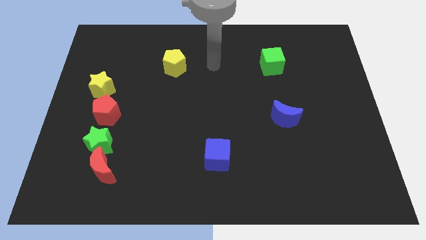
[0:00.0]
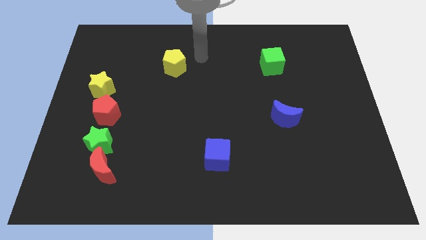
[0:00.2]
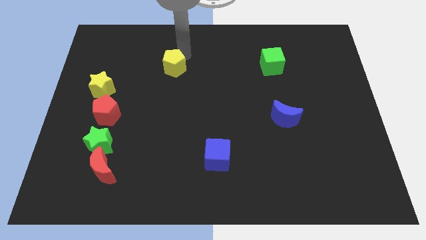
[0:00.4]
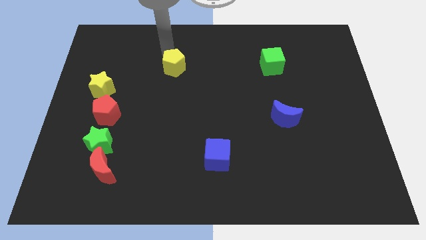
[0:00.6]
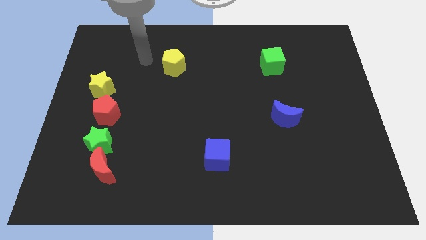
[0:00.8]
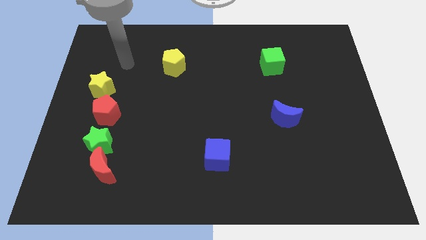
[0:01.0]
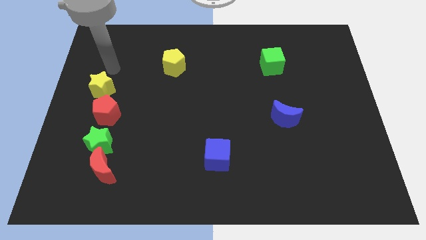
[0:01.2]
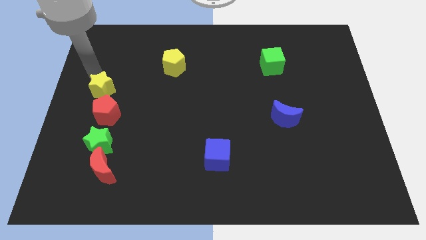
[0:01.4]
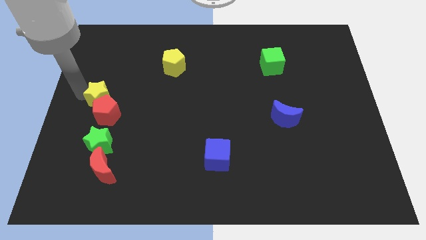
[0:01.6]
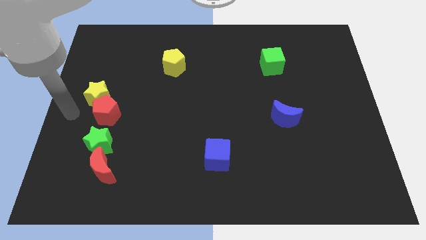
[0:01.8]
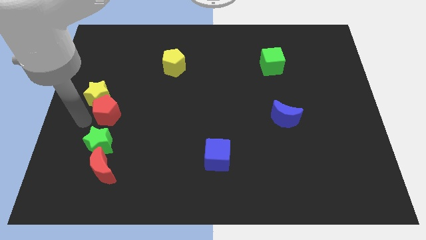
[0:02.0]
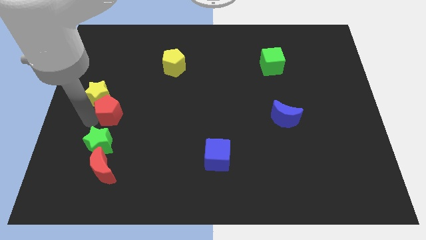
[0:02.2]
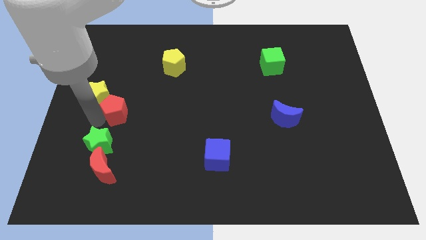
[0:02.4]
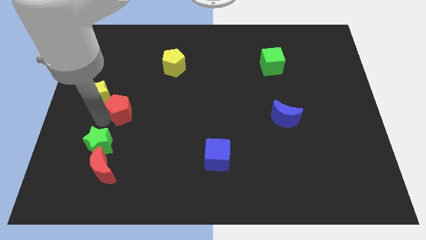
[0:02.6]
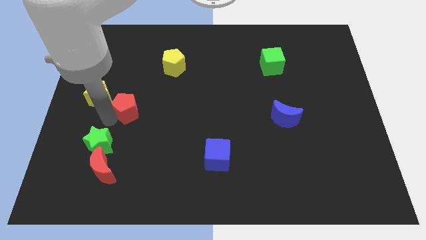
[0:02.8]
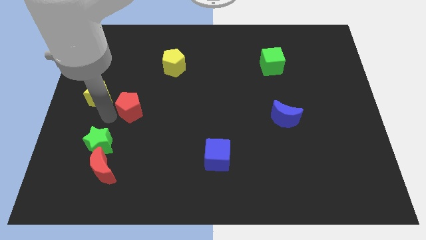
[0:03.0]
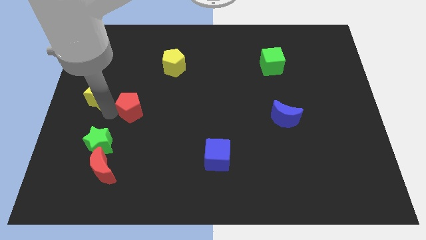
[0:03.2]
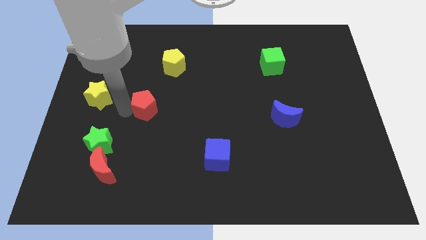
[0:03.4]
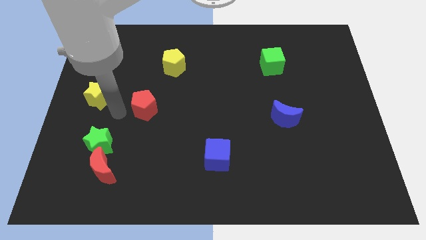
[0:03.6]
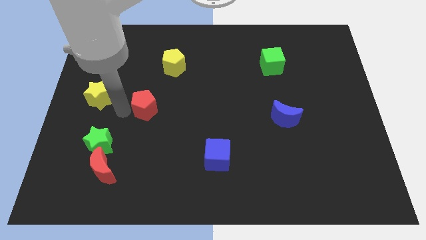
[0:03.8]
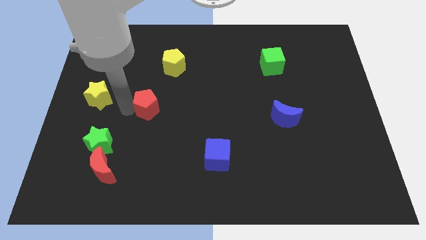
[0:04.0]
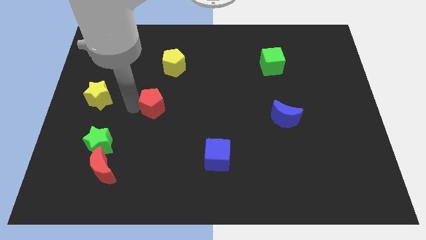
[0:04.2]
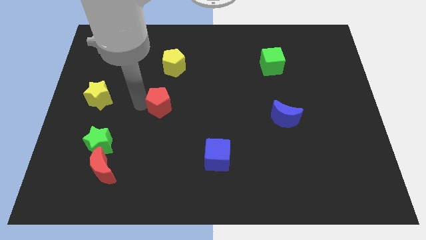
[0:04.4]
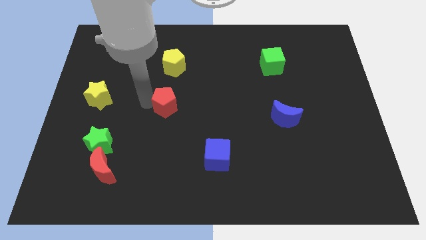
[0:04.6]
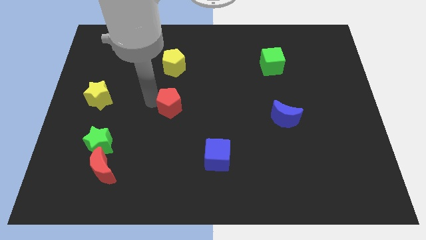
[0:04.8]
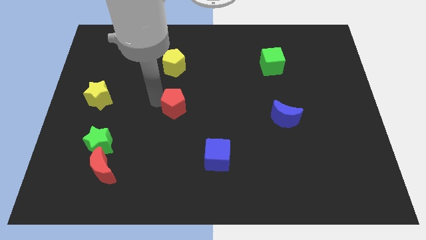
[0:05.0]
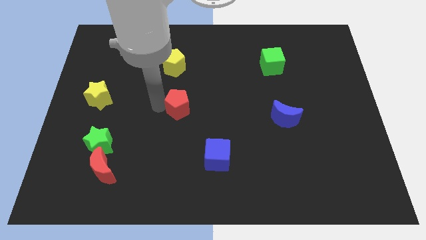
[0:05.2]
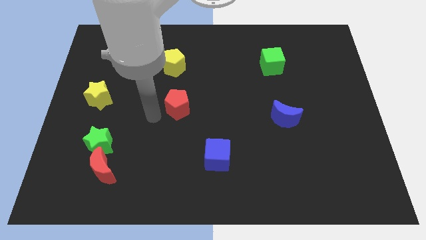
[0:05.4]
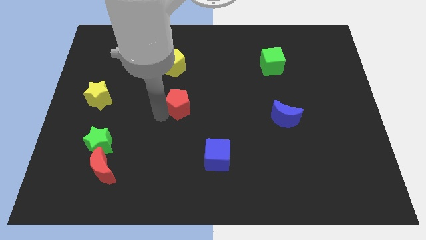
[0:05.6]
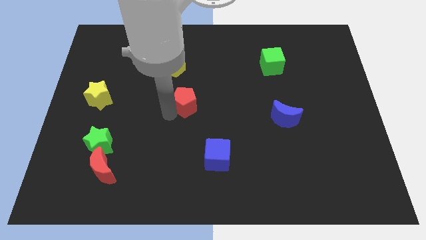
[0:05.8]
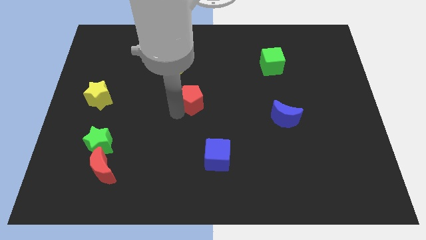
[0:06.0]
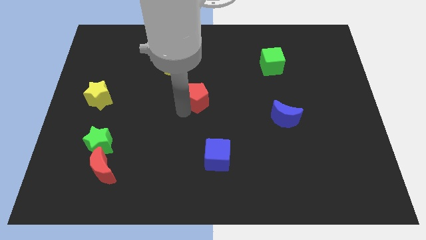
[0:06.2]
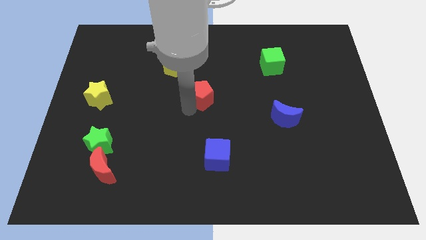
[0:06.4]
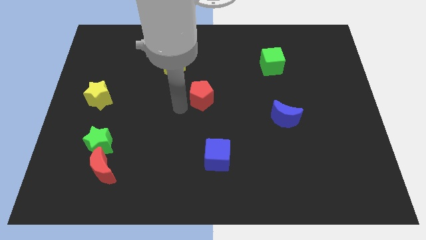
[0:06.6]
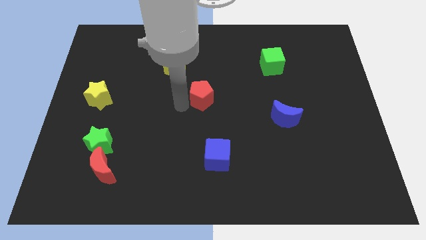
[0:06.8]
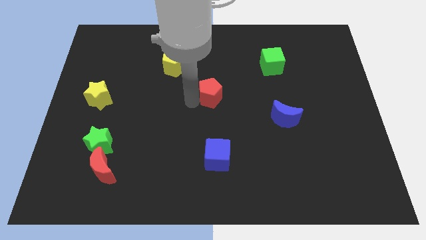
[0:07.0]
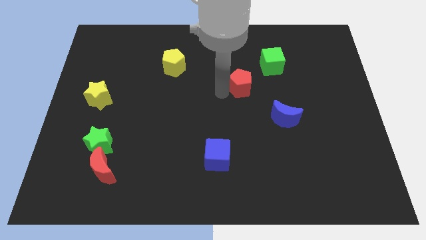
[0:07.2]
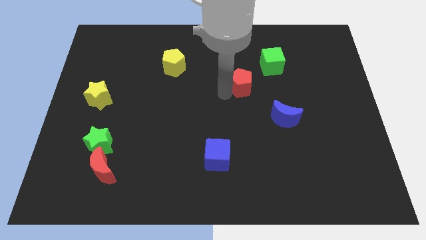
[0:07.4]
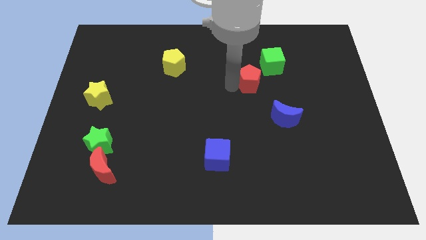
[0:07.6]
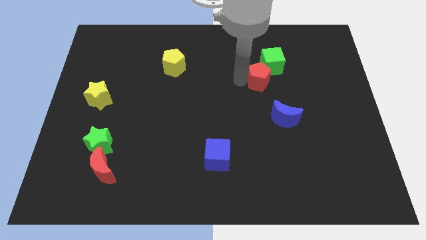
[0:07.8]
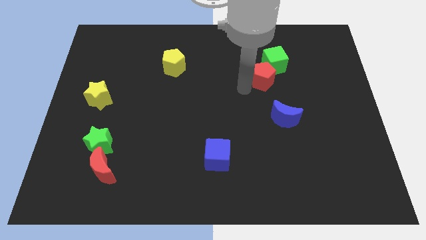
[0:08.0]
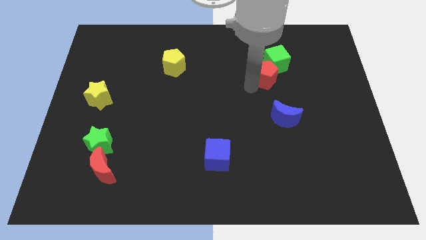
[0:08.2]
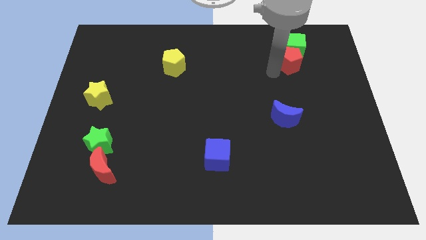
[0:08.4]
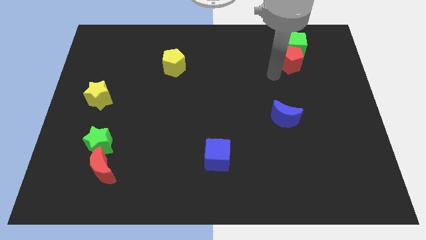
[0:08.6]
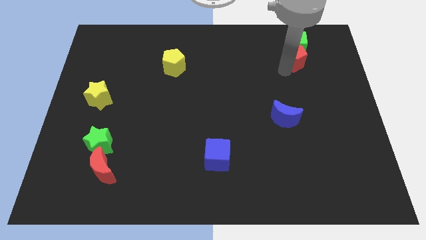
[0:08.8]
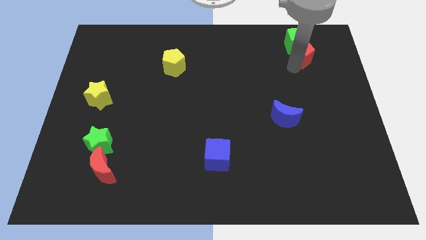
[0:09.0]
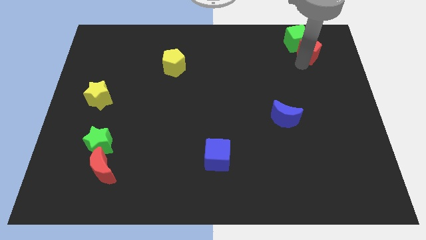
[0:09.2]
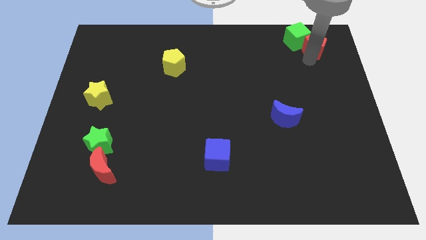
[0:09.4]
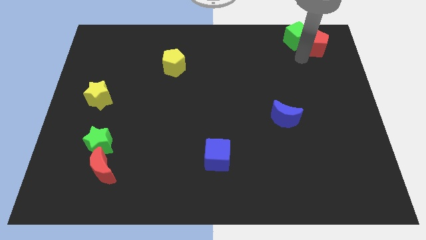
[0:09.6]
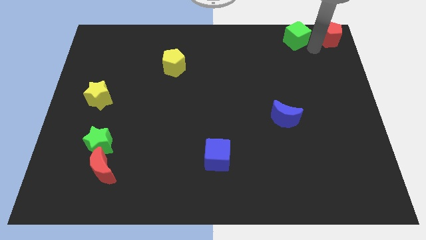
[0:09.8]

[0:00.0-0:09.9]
move the red pentagon to the top right of the board

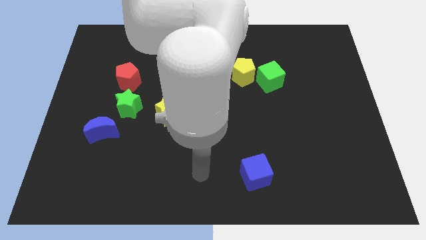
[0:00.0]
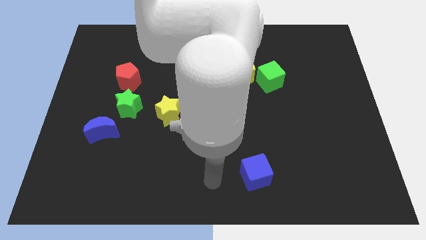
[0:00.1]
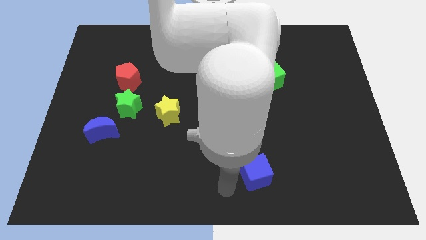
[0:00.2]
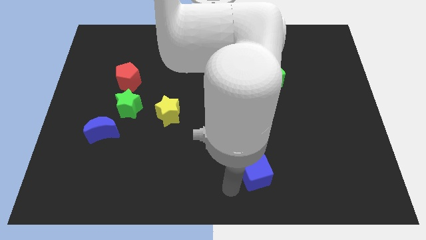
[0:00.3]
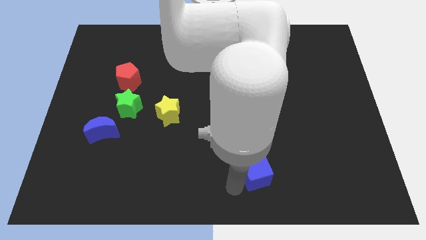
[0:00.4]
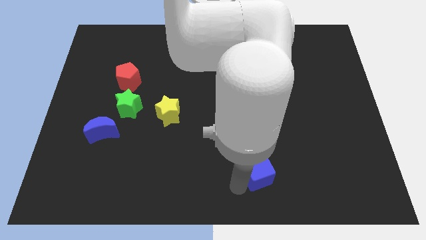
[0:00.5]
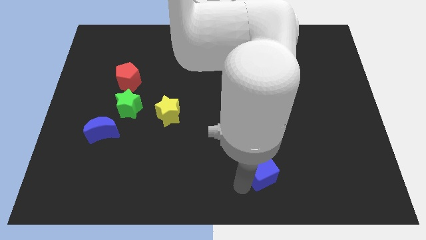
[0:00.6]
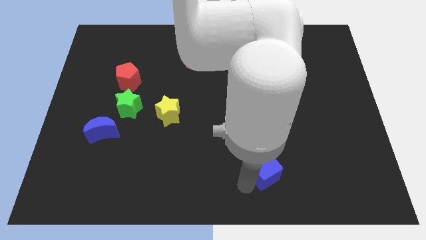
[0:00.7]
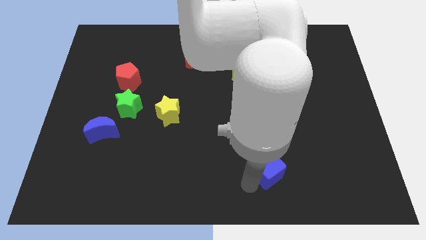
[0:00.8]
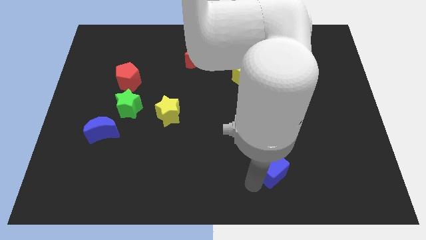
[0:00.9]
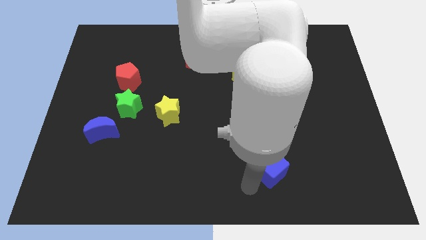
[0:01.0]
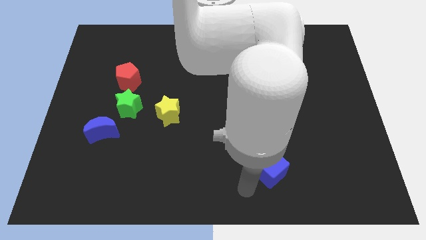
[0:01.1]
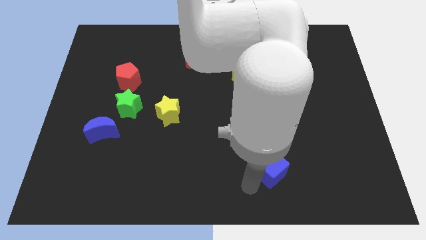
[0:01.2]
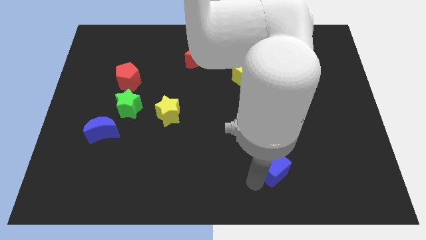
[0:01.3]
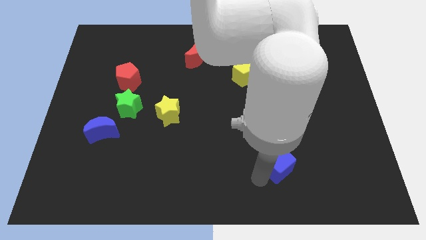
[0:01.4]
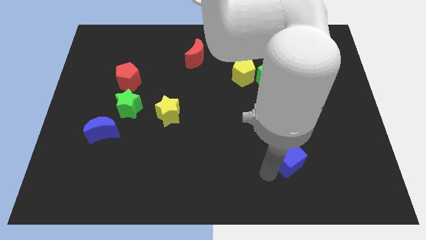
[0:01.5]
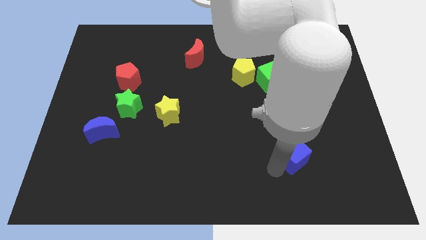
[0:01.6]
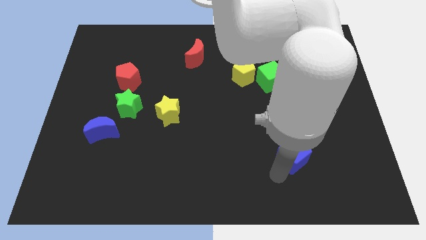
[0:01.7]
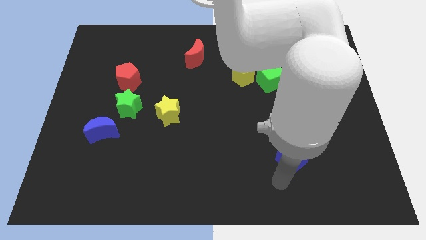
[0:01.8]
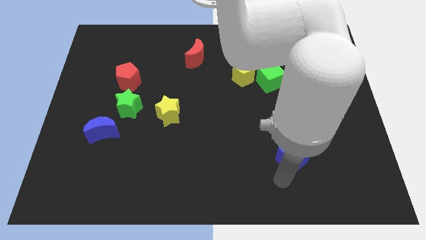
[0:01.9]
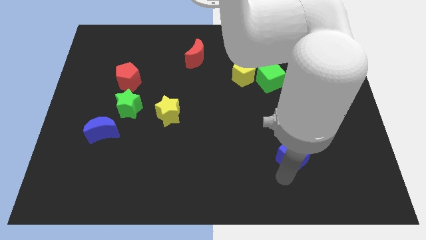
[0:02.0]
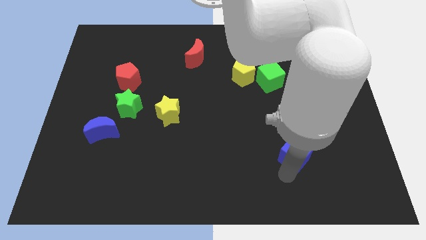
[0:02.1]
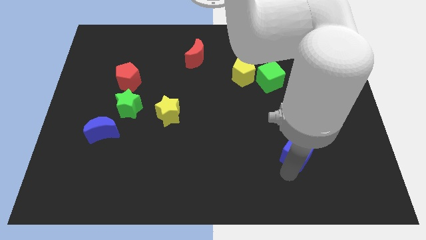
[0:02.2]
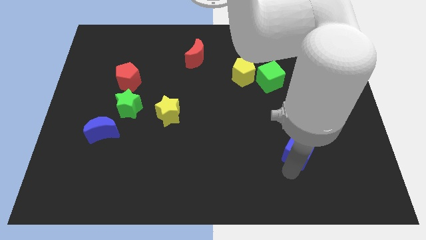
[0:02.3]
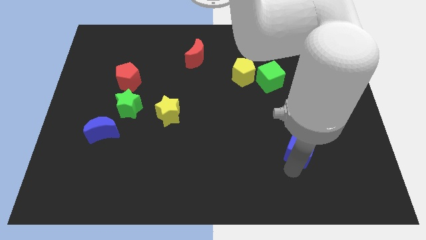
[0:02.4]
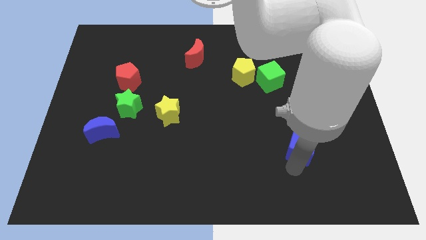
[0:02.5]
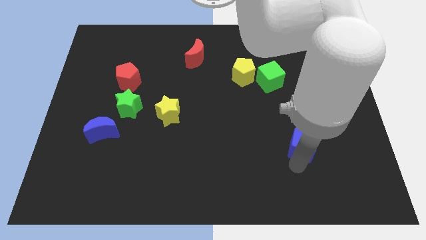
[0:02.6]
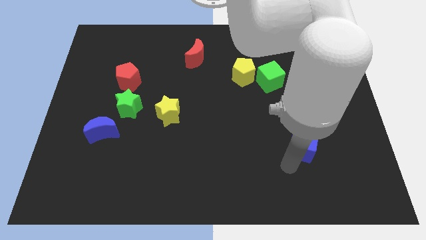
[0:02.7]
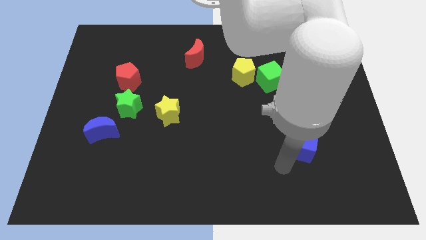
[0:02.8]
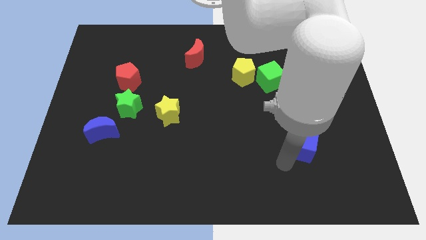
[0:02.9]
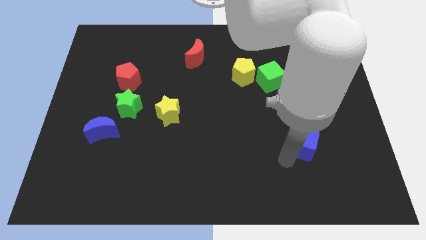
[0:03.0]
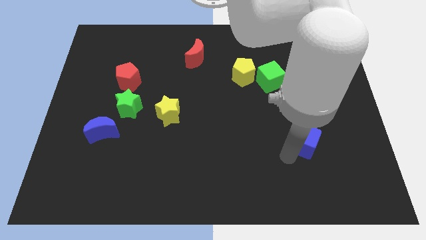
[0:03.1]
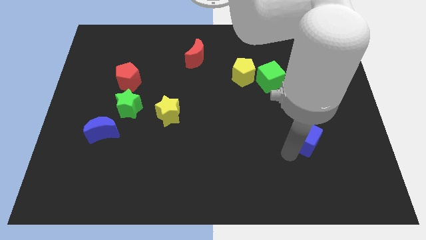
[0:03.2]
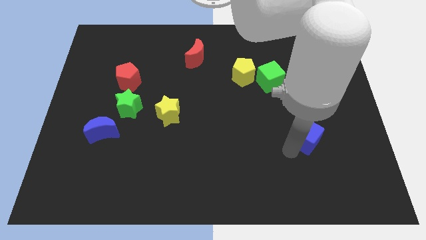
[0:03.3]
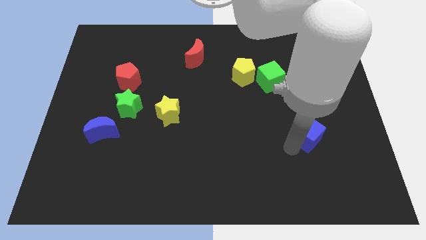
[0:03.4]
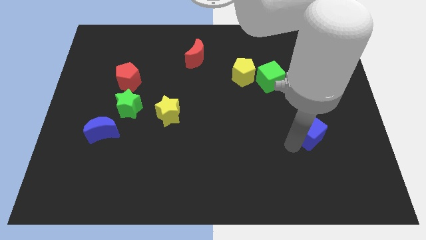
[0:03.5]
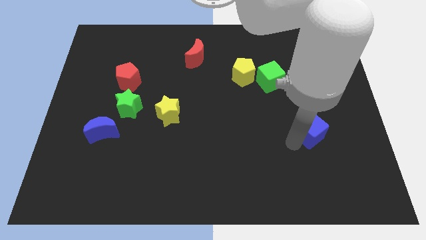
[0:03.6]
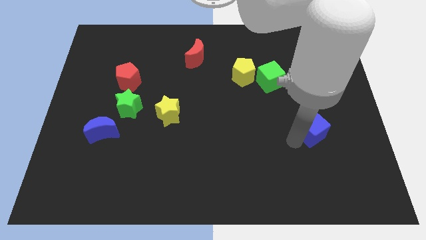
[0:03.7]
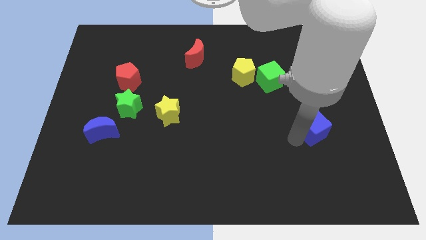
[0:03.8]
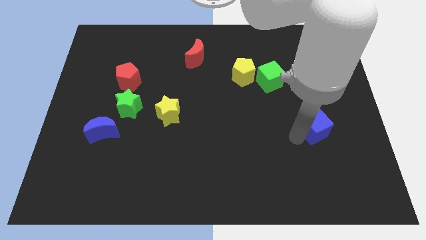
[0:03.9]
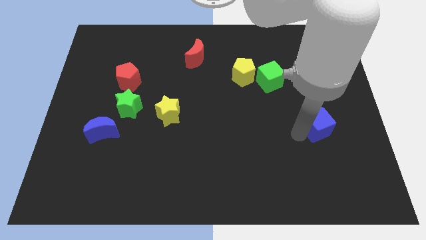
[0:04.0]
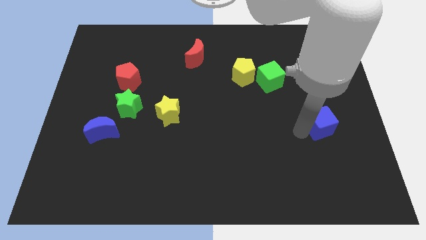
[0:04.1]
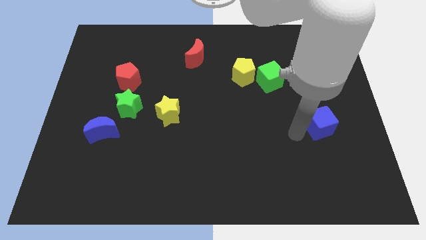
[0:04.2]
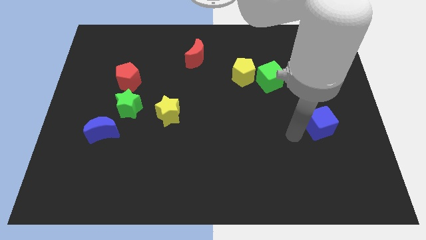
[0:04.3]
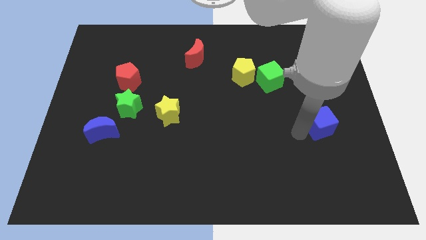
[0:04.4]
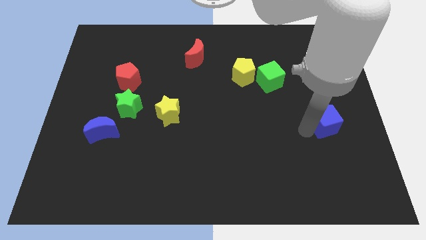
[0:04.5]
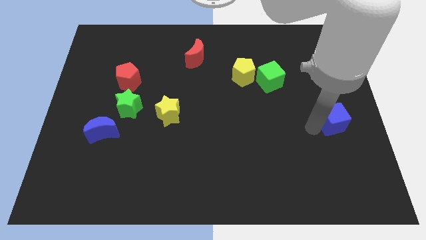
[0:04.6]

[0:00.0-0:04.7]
move the blue cube to the right side
